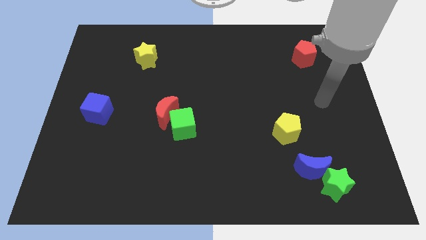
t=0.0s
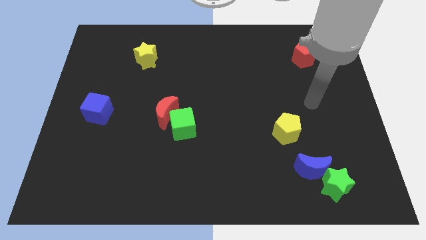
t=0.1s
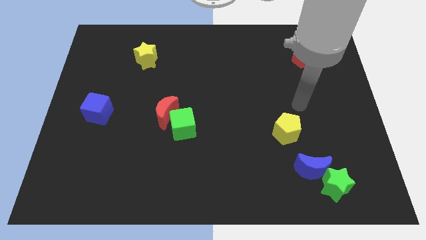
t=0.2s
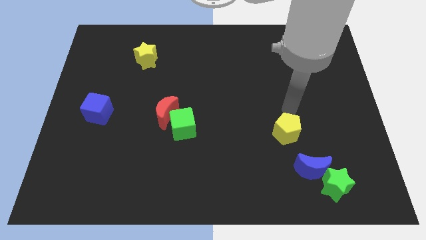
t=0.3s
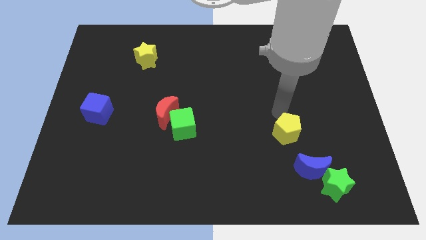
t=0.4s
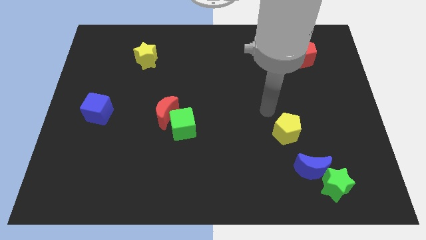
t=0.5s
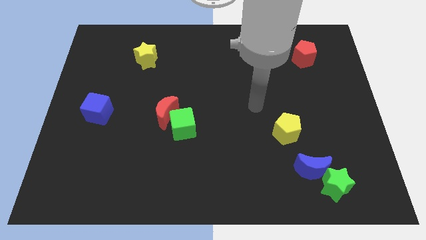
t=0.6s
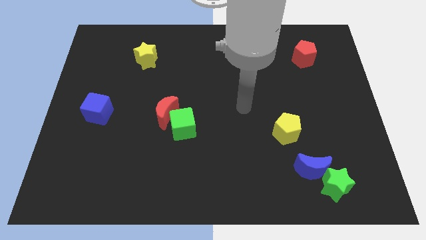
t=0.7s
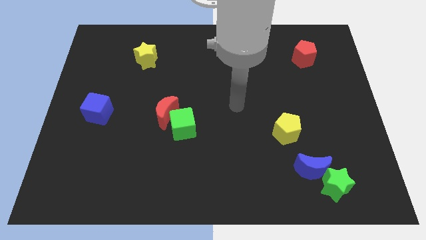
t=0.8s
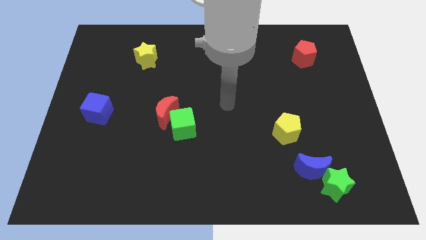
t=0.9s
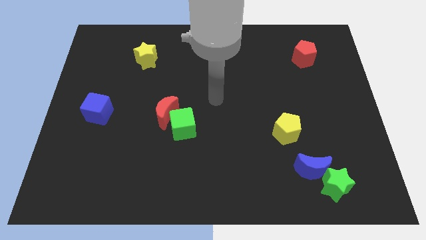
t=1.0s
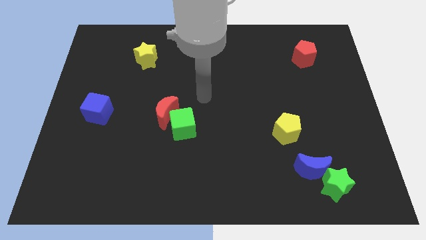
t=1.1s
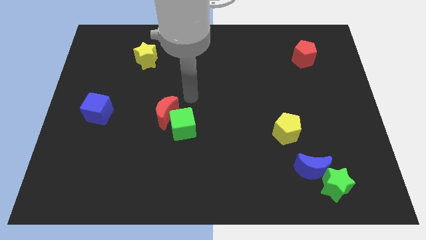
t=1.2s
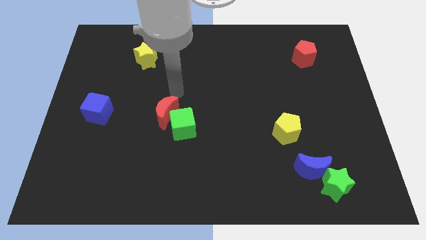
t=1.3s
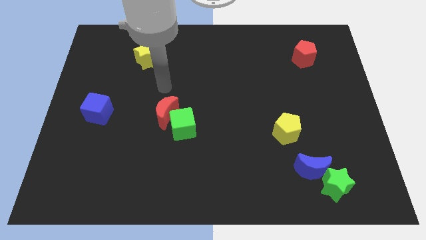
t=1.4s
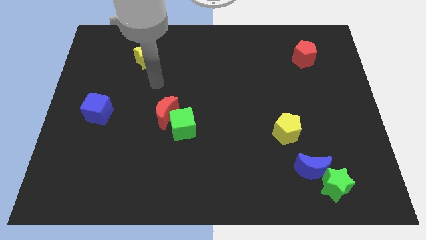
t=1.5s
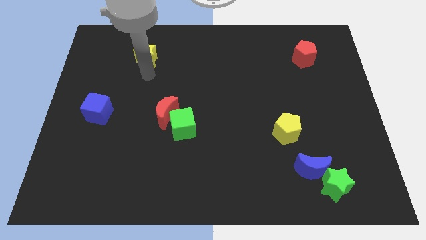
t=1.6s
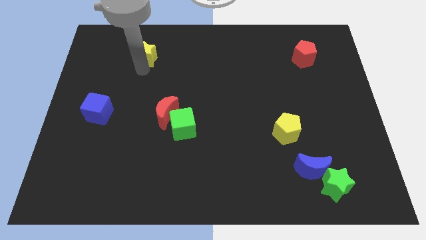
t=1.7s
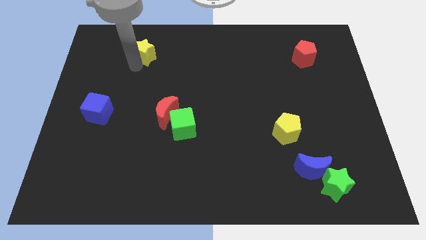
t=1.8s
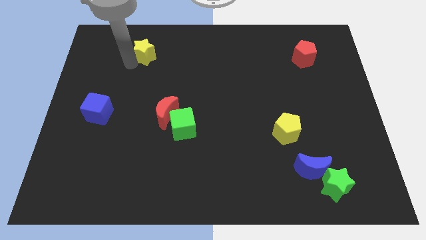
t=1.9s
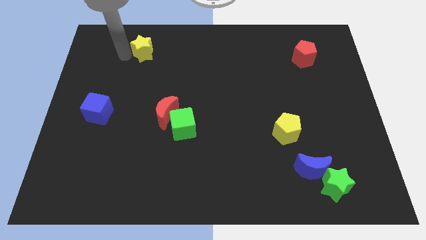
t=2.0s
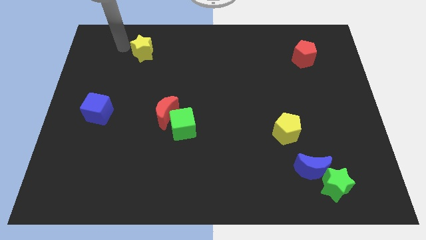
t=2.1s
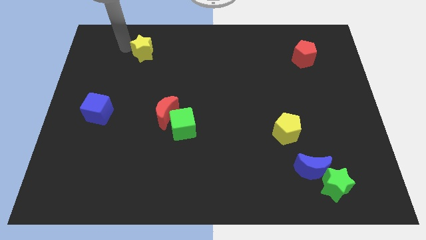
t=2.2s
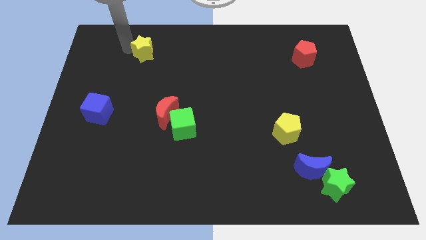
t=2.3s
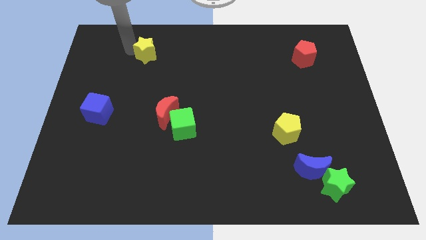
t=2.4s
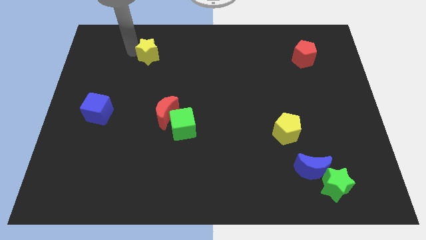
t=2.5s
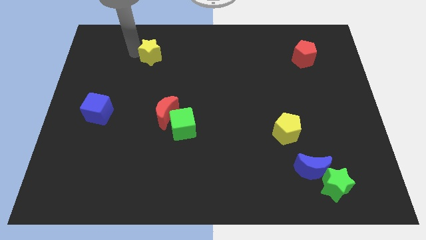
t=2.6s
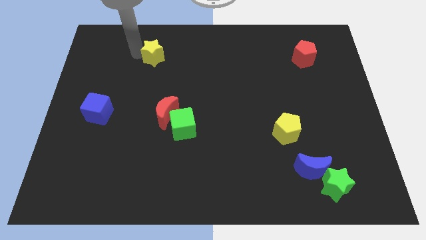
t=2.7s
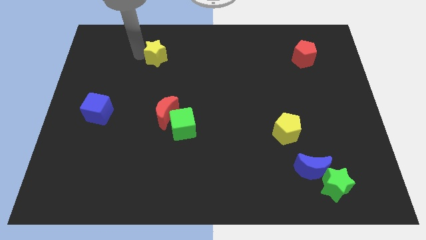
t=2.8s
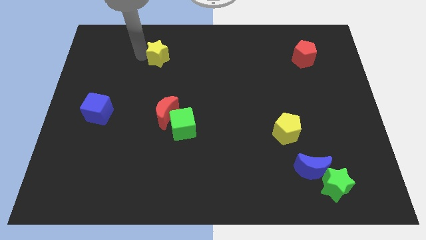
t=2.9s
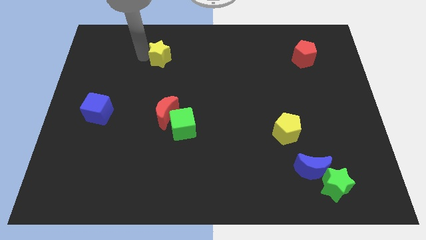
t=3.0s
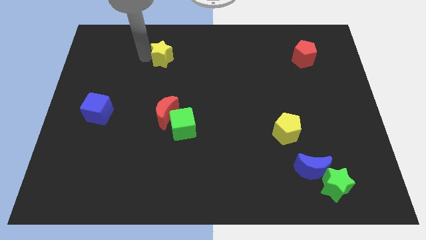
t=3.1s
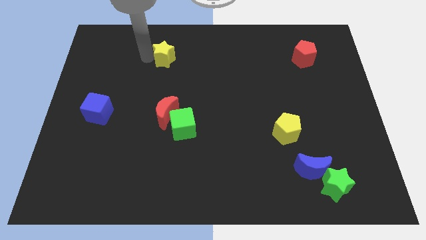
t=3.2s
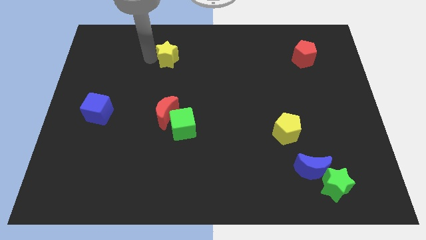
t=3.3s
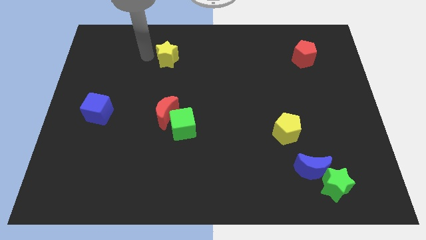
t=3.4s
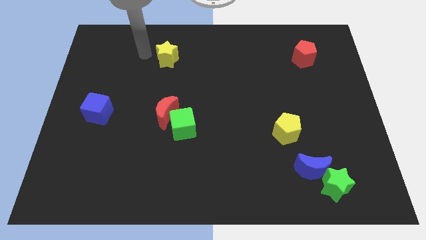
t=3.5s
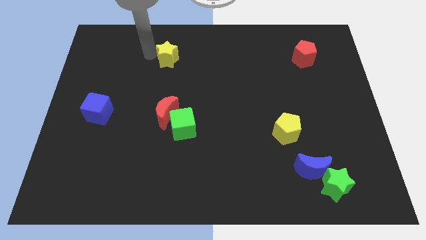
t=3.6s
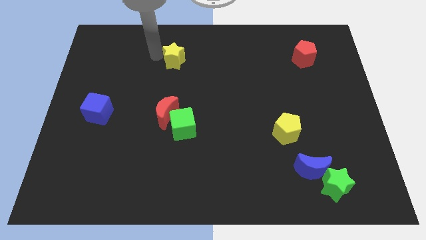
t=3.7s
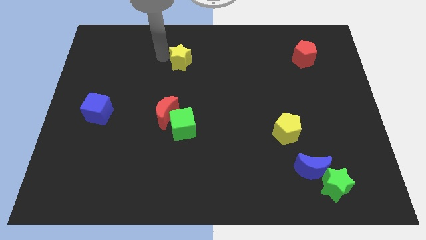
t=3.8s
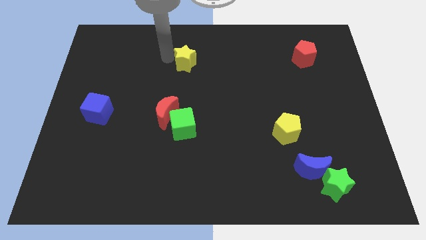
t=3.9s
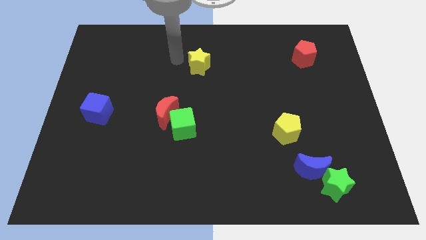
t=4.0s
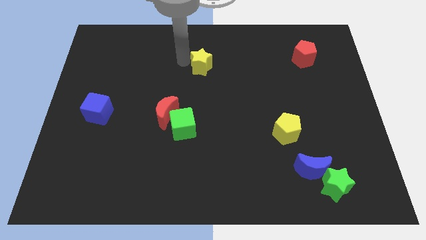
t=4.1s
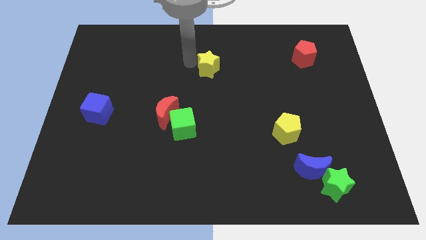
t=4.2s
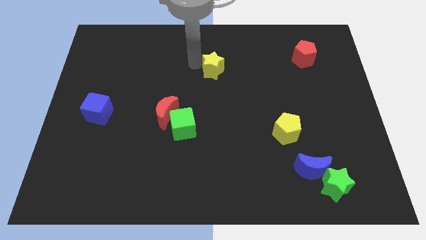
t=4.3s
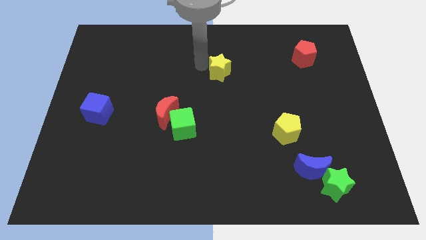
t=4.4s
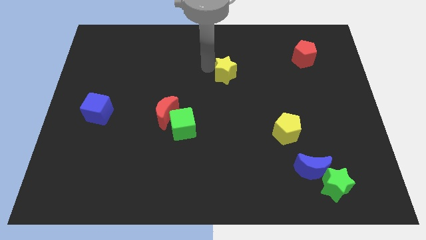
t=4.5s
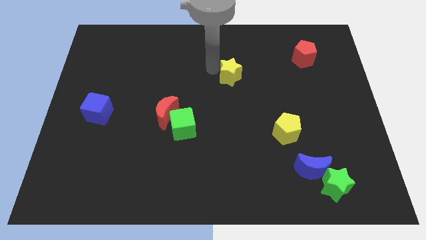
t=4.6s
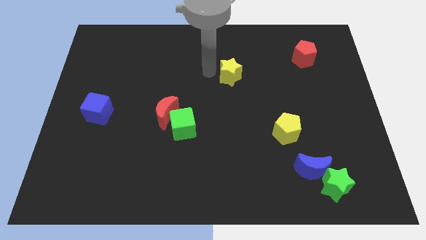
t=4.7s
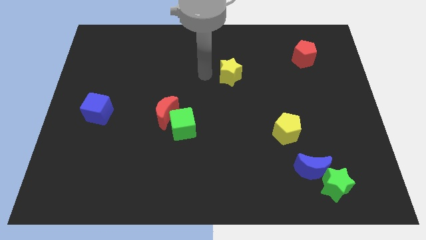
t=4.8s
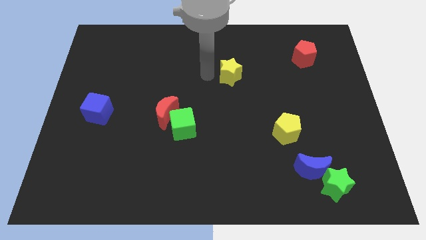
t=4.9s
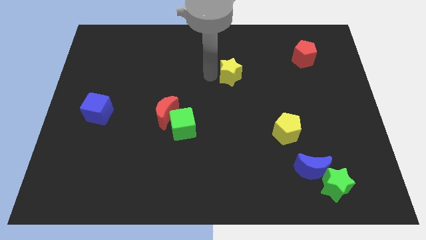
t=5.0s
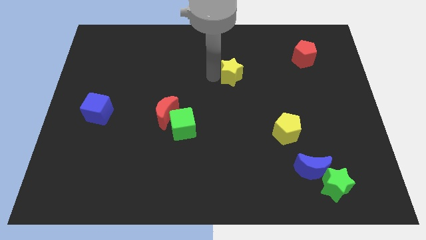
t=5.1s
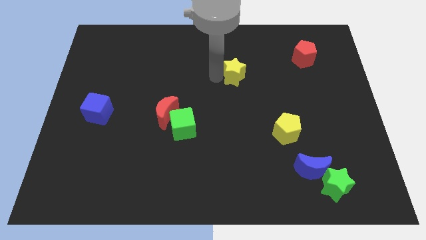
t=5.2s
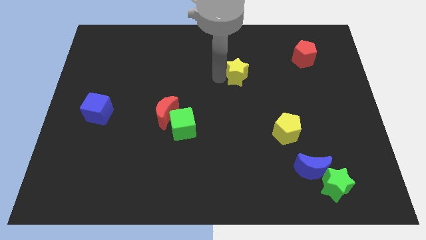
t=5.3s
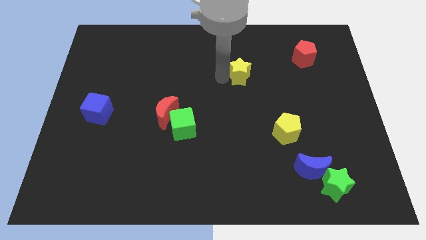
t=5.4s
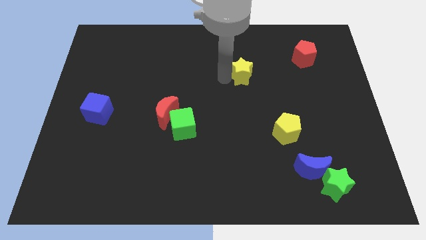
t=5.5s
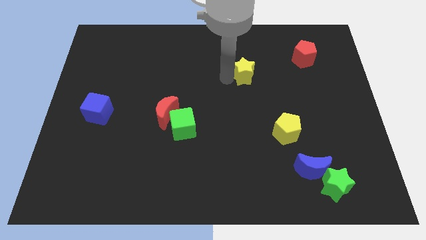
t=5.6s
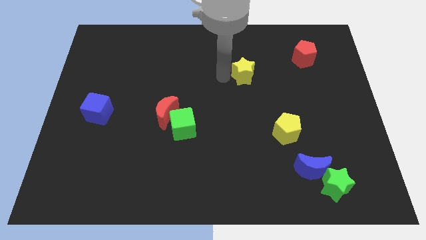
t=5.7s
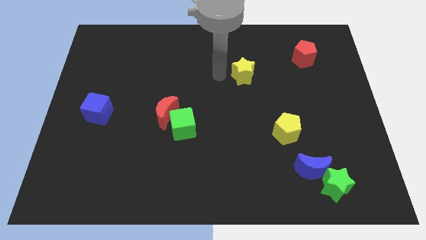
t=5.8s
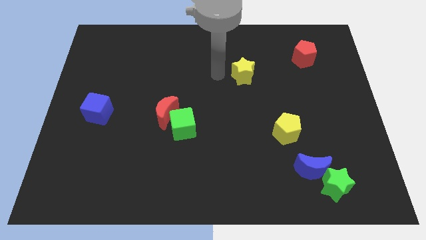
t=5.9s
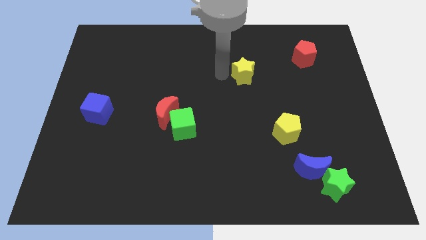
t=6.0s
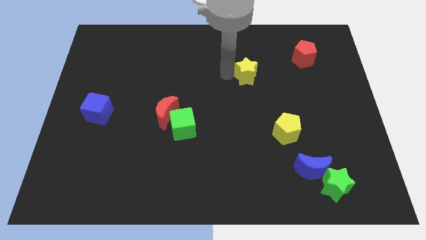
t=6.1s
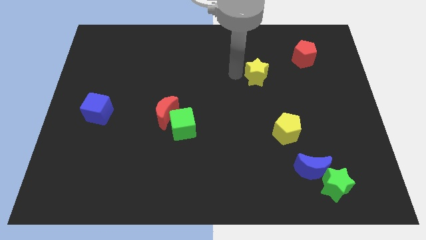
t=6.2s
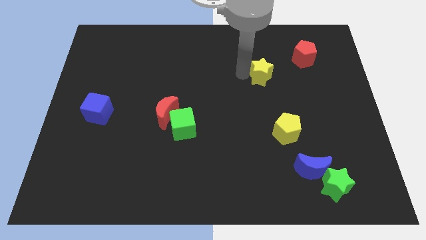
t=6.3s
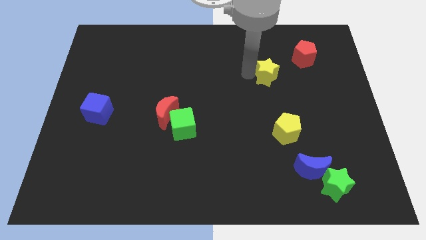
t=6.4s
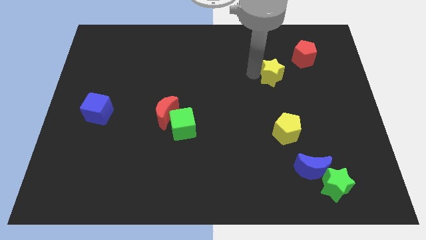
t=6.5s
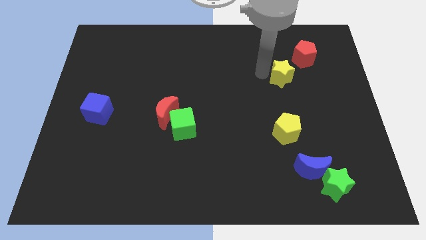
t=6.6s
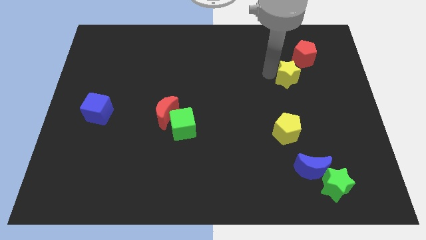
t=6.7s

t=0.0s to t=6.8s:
slide the yellow star to the bottom side of the red pentagon
